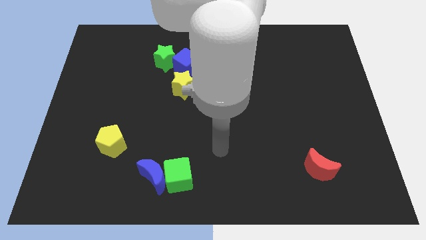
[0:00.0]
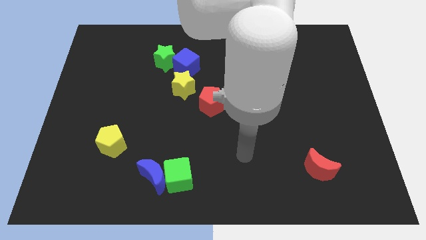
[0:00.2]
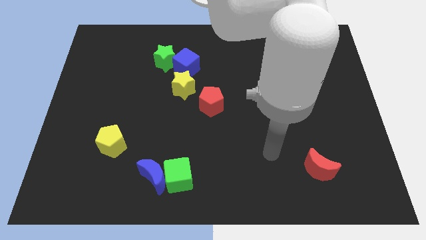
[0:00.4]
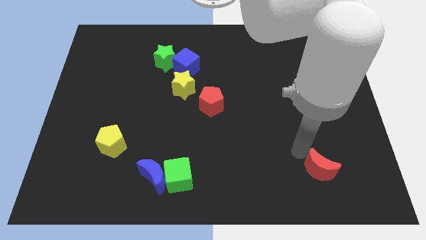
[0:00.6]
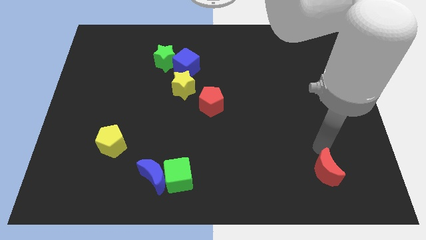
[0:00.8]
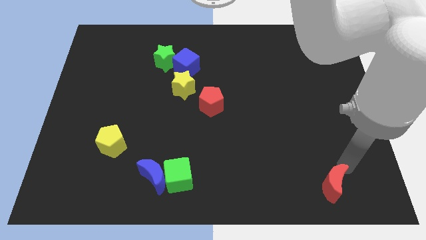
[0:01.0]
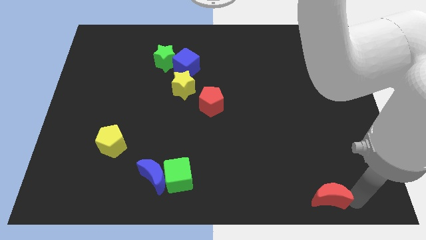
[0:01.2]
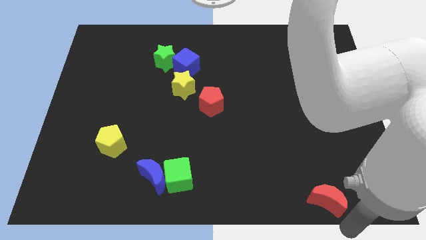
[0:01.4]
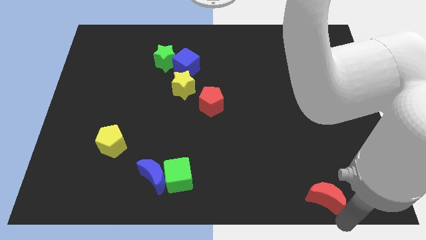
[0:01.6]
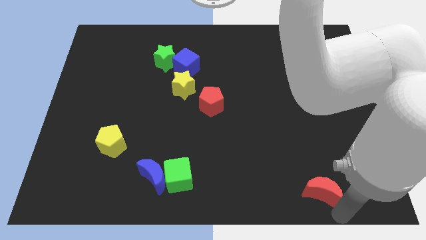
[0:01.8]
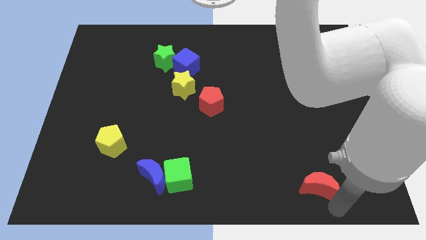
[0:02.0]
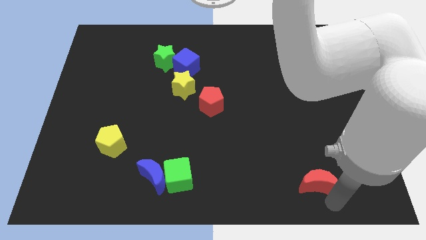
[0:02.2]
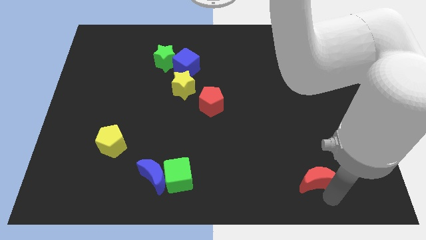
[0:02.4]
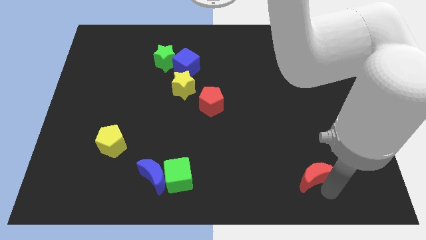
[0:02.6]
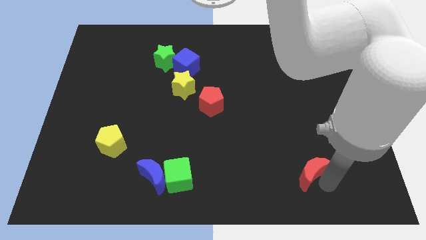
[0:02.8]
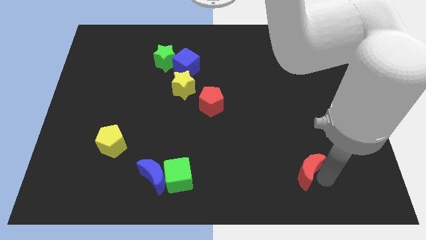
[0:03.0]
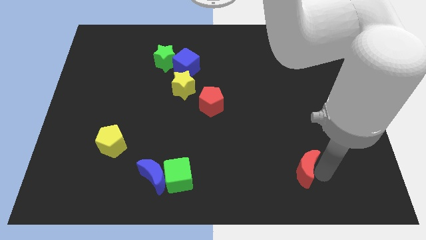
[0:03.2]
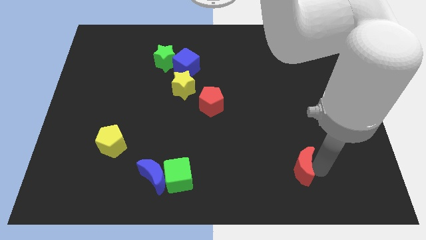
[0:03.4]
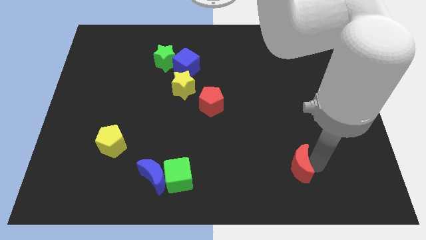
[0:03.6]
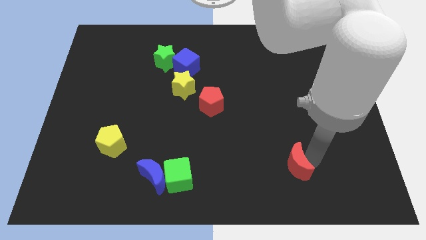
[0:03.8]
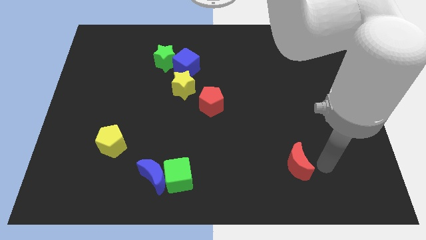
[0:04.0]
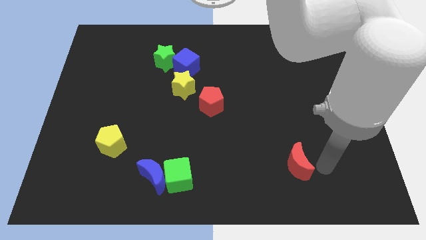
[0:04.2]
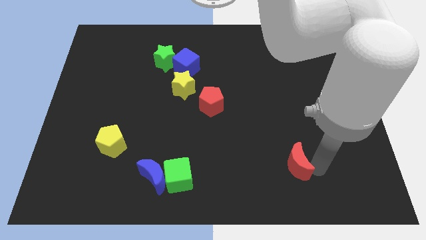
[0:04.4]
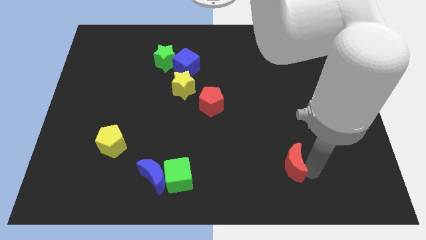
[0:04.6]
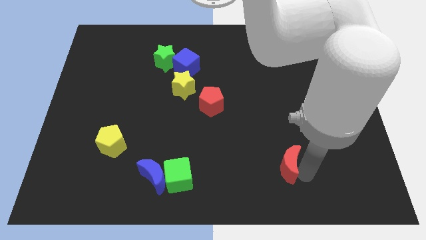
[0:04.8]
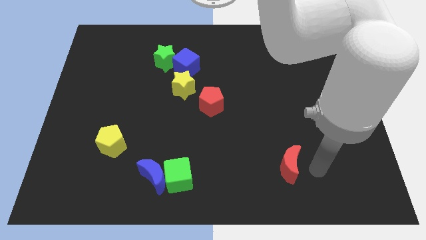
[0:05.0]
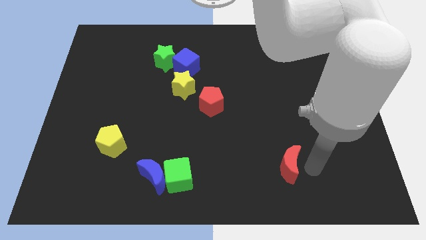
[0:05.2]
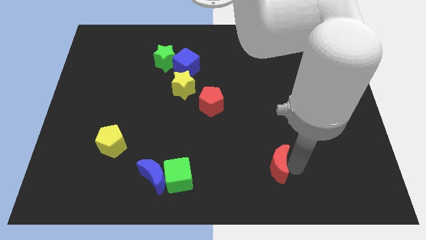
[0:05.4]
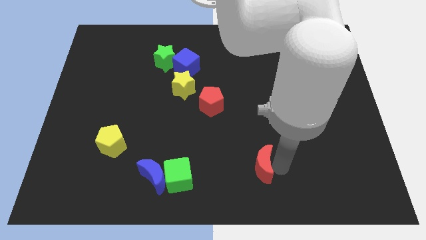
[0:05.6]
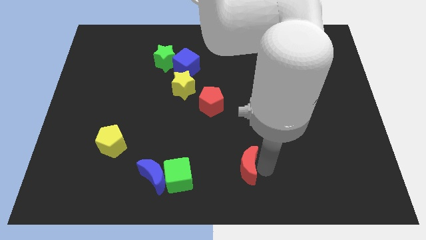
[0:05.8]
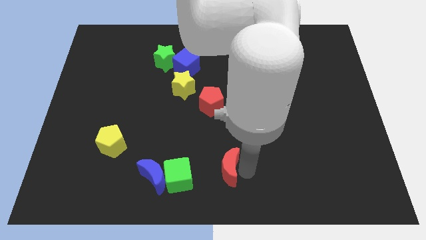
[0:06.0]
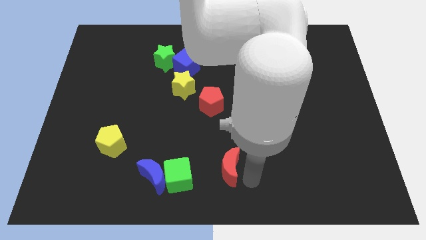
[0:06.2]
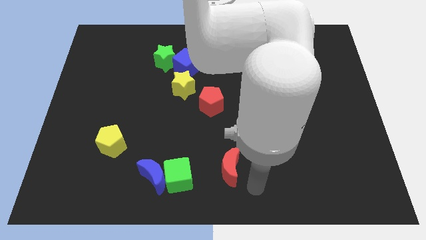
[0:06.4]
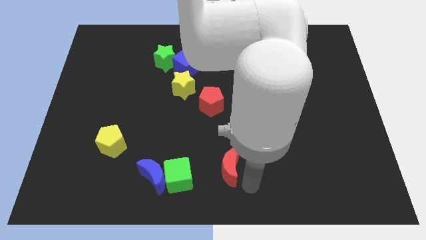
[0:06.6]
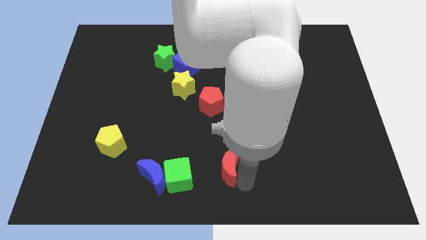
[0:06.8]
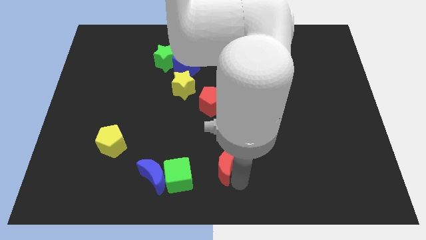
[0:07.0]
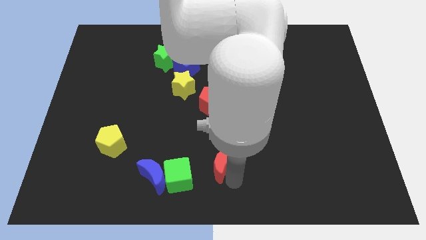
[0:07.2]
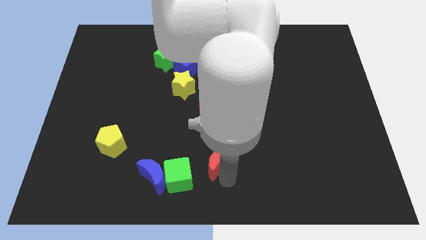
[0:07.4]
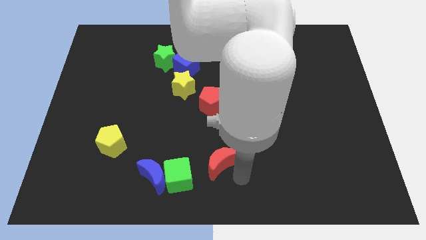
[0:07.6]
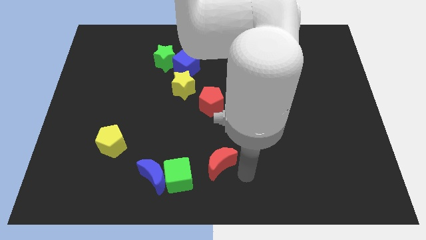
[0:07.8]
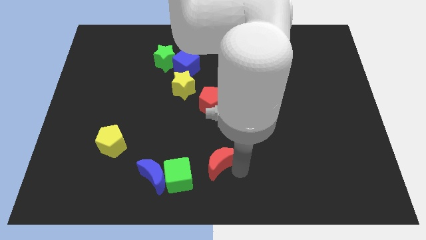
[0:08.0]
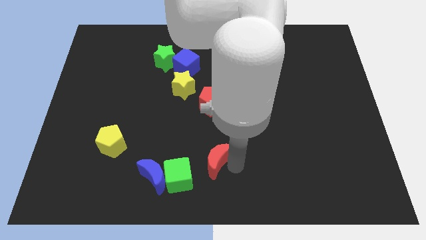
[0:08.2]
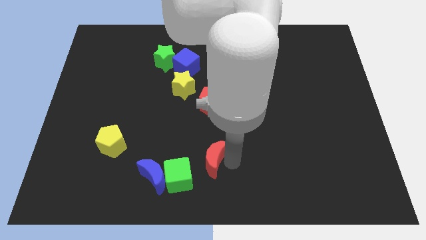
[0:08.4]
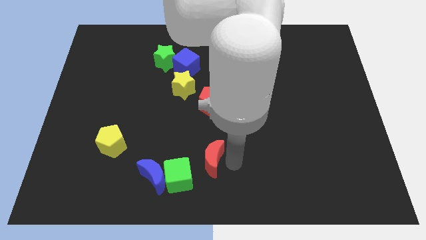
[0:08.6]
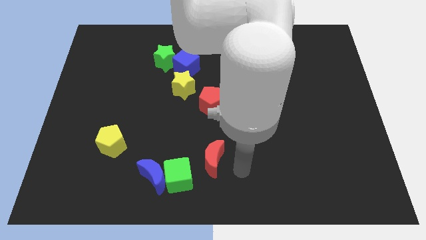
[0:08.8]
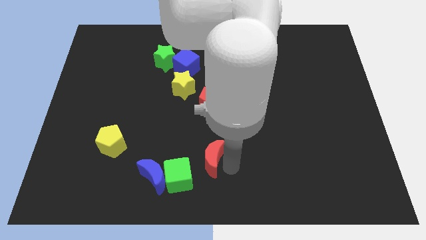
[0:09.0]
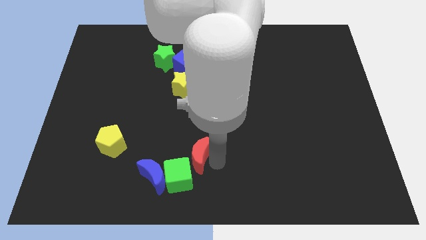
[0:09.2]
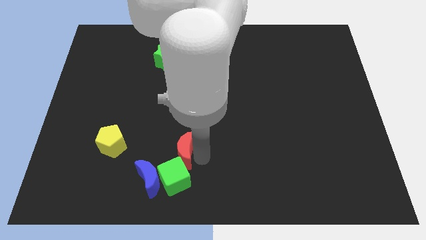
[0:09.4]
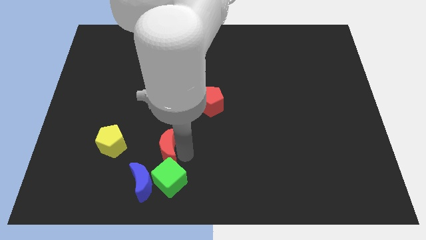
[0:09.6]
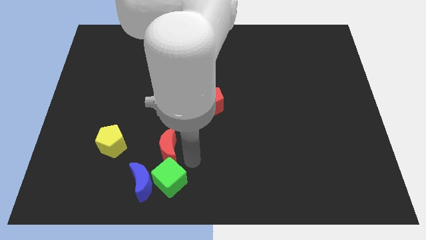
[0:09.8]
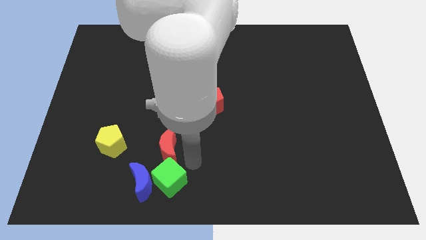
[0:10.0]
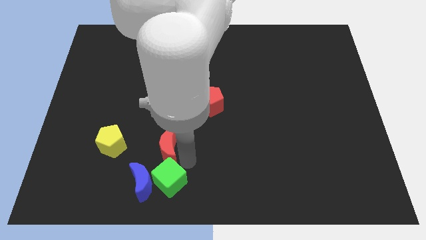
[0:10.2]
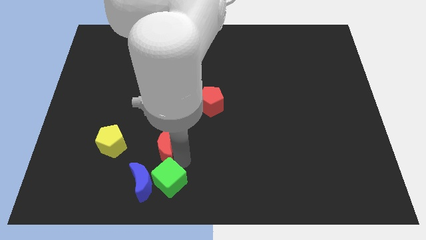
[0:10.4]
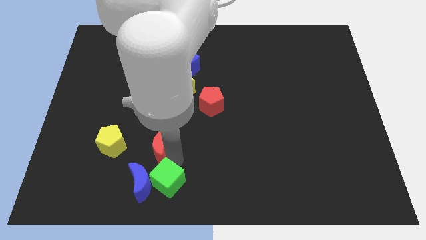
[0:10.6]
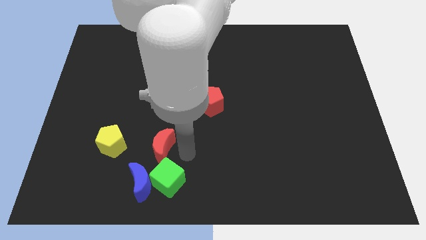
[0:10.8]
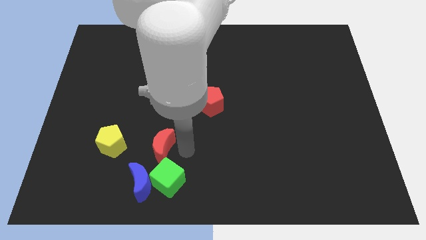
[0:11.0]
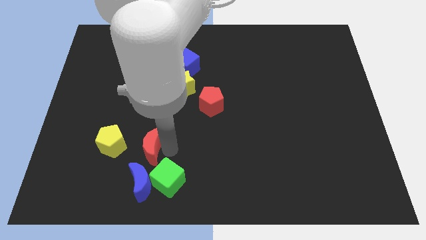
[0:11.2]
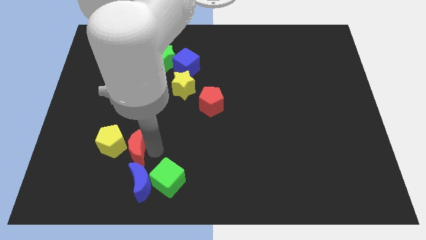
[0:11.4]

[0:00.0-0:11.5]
put the red moon next to the yellow pentagon

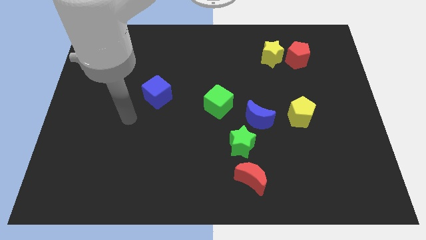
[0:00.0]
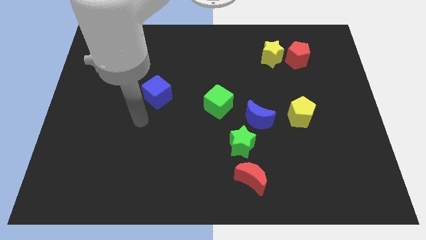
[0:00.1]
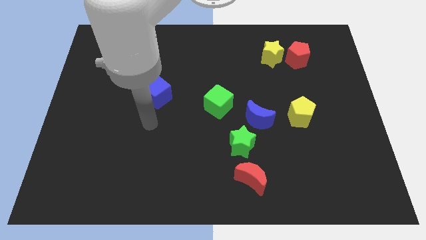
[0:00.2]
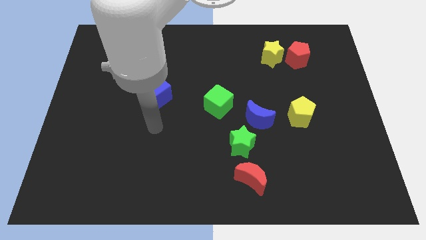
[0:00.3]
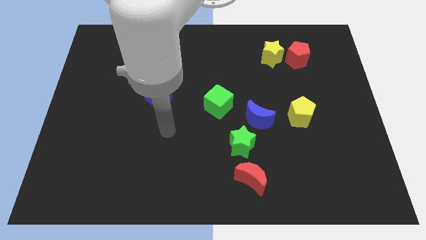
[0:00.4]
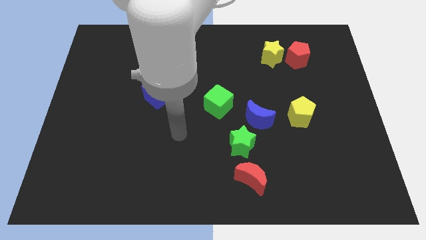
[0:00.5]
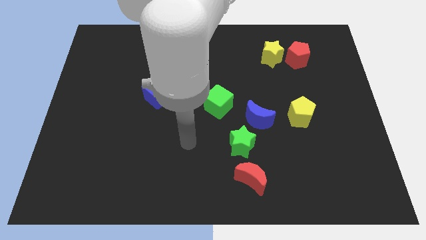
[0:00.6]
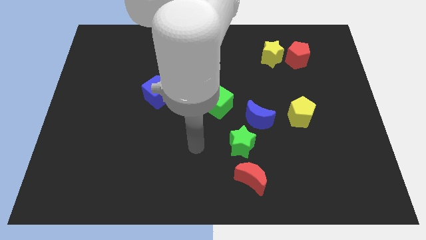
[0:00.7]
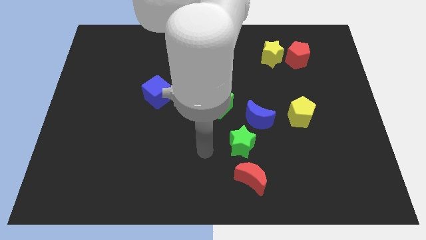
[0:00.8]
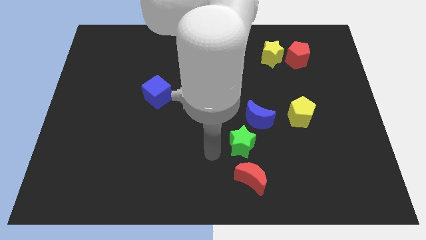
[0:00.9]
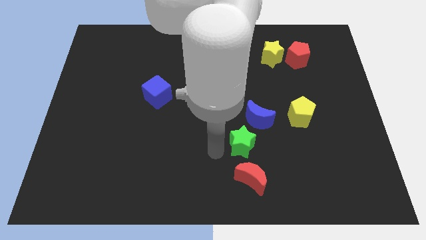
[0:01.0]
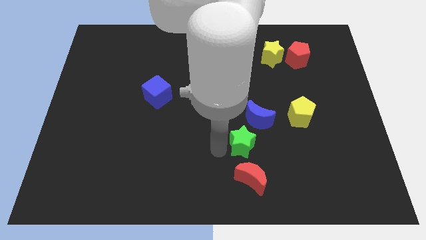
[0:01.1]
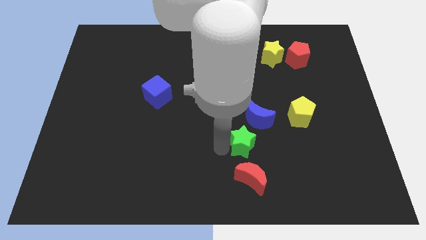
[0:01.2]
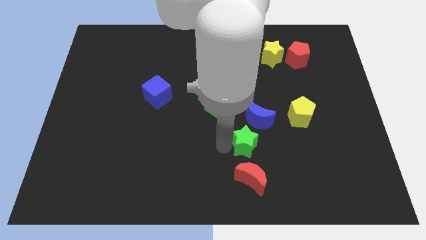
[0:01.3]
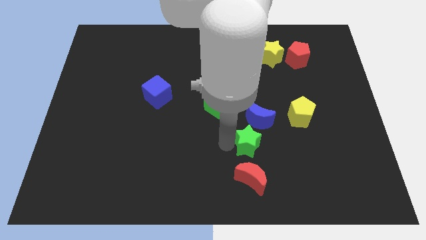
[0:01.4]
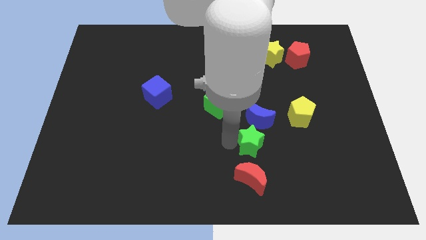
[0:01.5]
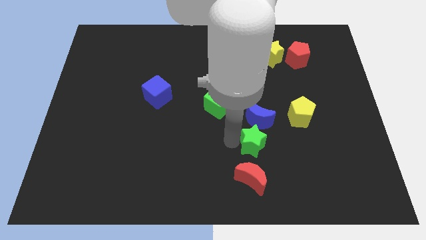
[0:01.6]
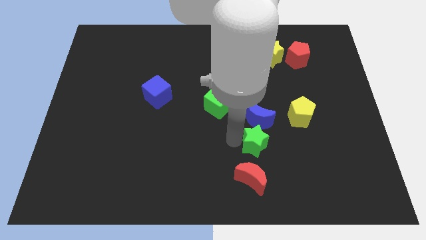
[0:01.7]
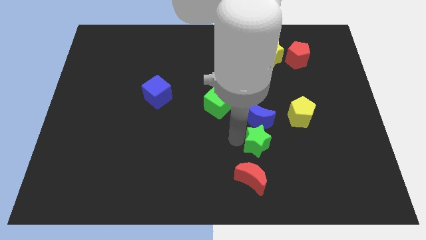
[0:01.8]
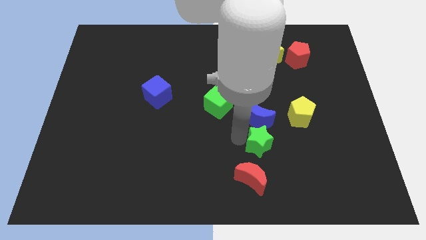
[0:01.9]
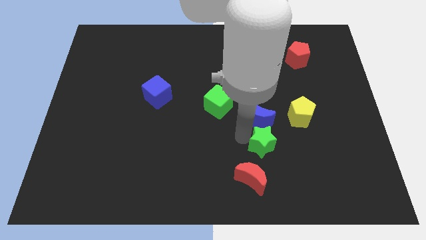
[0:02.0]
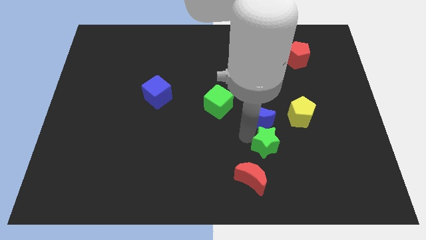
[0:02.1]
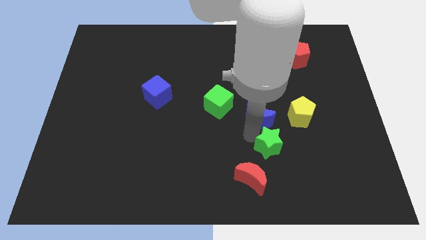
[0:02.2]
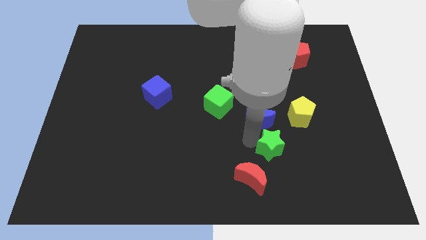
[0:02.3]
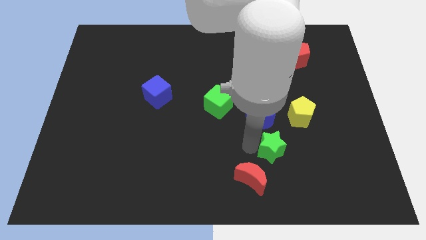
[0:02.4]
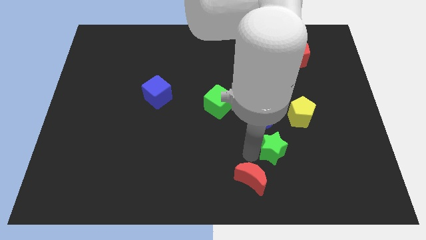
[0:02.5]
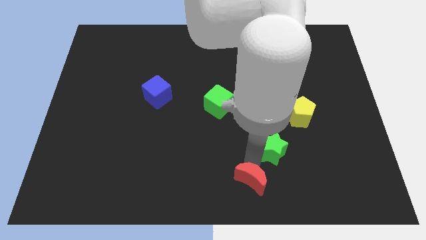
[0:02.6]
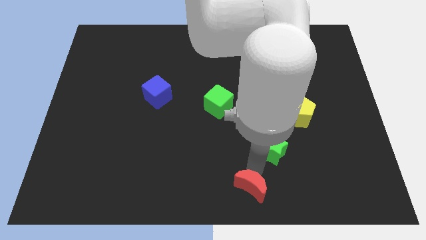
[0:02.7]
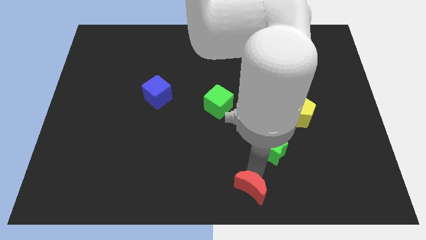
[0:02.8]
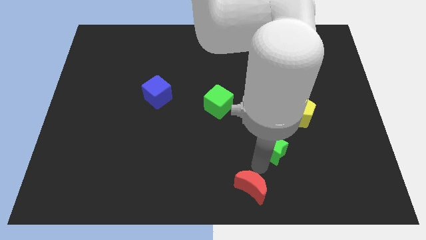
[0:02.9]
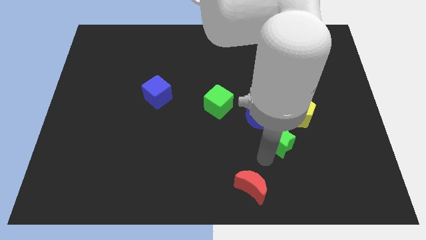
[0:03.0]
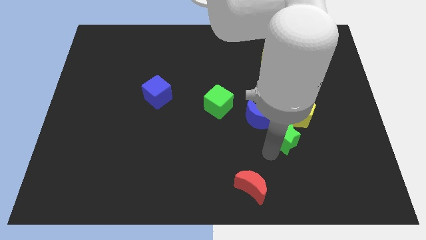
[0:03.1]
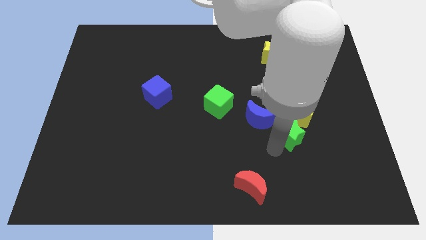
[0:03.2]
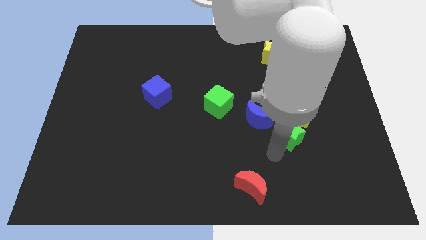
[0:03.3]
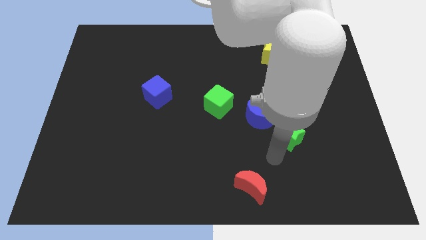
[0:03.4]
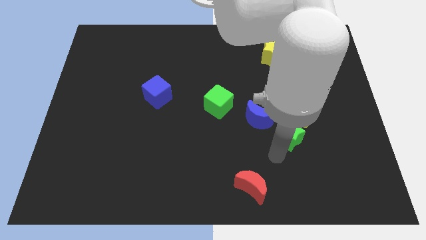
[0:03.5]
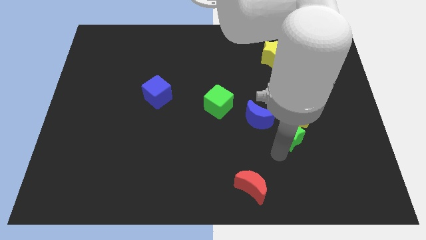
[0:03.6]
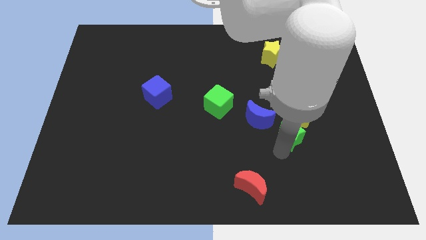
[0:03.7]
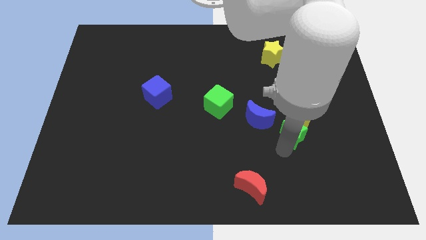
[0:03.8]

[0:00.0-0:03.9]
move the green star close to the yellow pentagon
